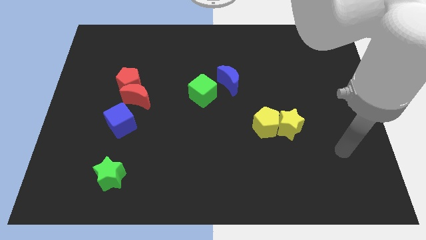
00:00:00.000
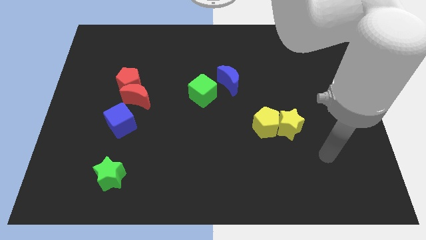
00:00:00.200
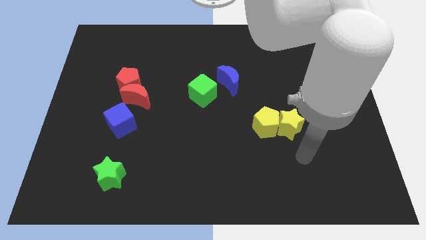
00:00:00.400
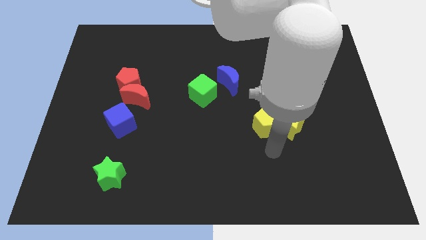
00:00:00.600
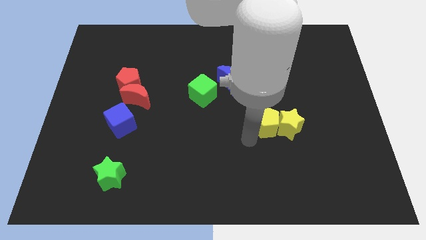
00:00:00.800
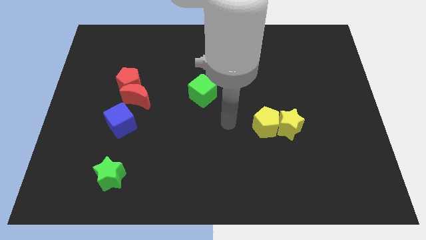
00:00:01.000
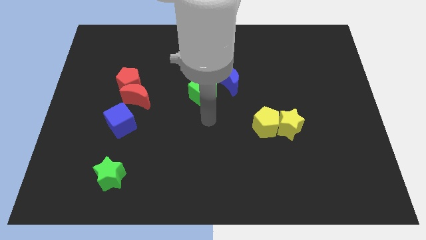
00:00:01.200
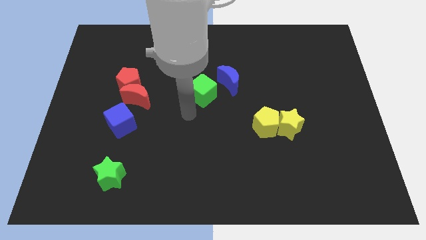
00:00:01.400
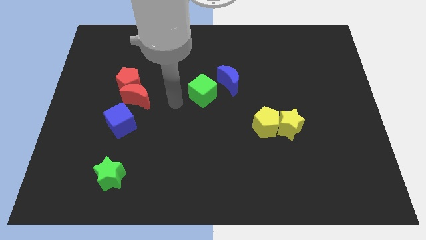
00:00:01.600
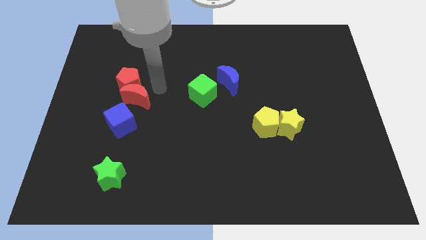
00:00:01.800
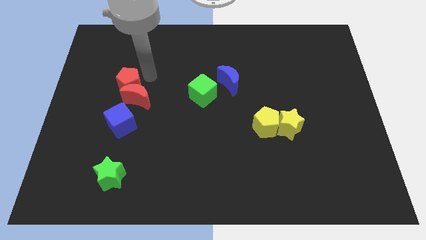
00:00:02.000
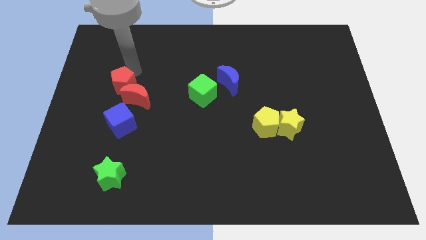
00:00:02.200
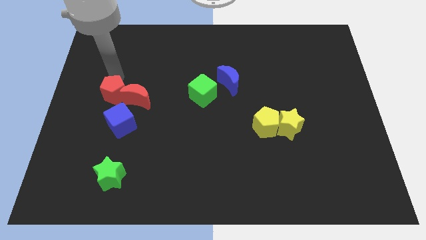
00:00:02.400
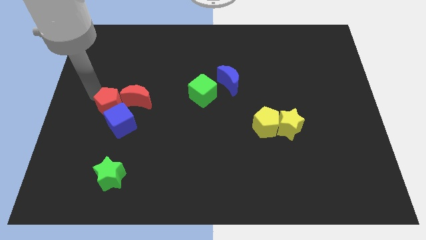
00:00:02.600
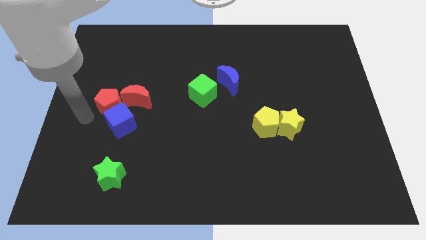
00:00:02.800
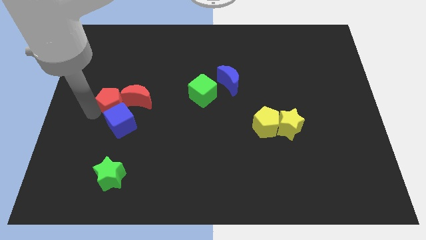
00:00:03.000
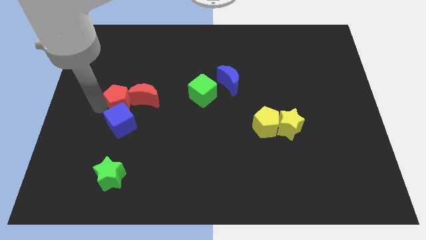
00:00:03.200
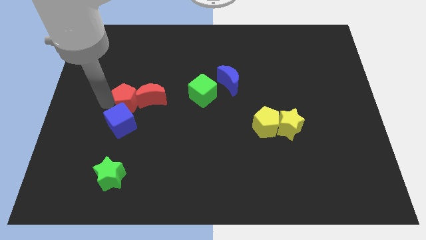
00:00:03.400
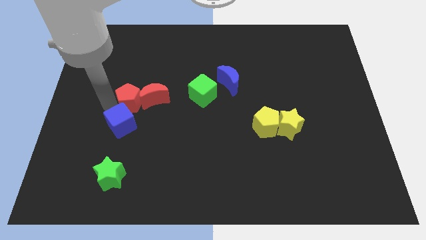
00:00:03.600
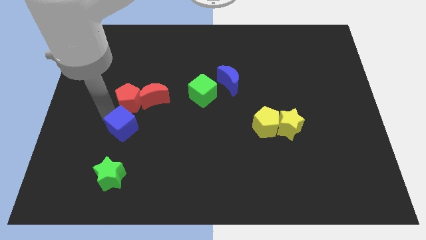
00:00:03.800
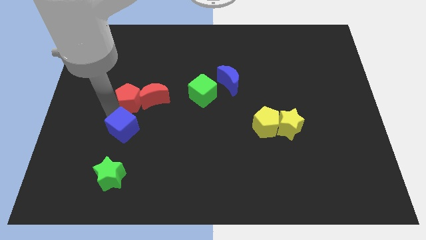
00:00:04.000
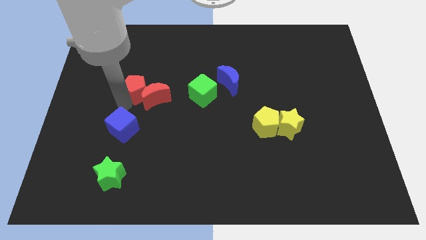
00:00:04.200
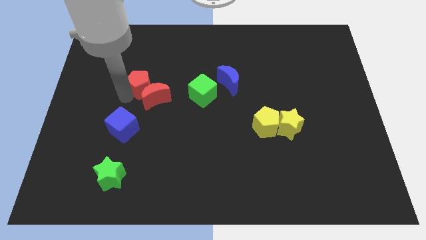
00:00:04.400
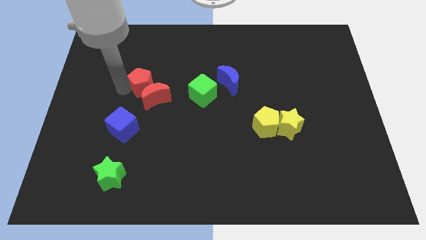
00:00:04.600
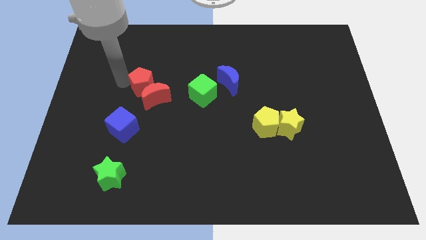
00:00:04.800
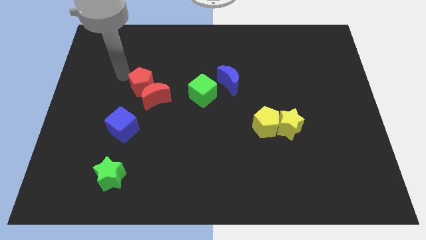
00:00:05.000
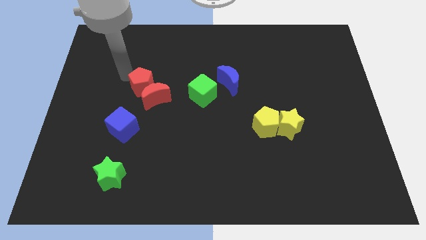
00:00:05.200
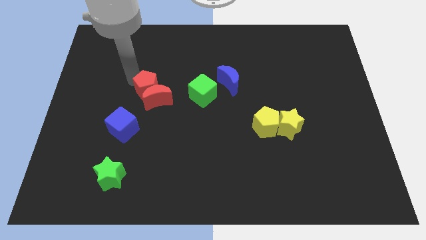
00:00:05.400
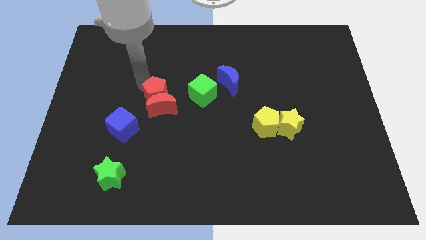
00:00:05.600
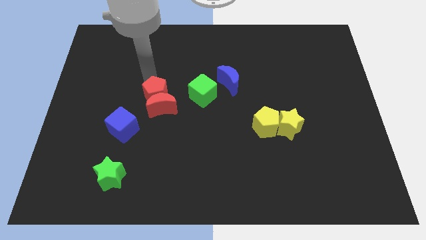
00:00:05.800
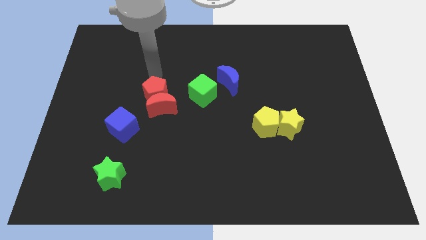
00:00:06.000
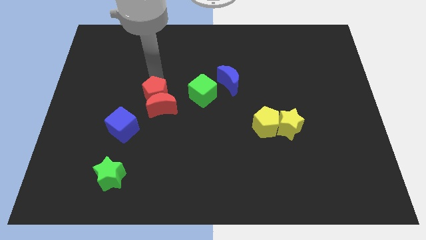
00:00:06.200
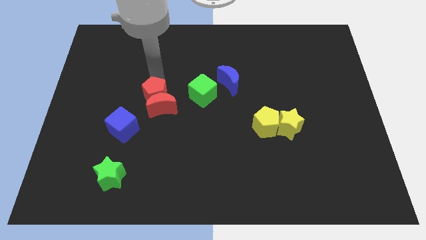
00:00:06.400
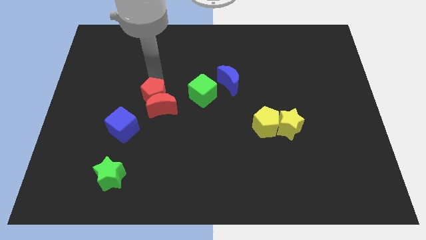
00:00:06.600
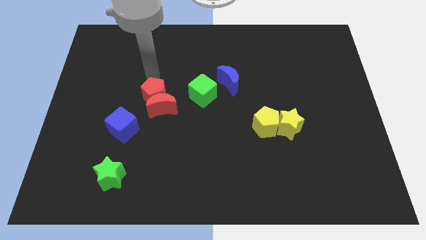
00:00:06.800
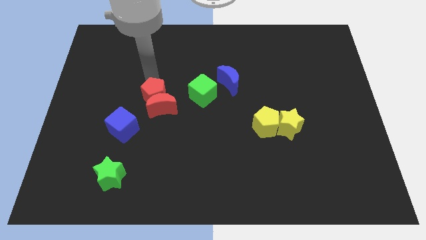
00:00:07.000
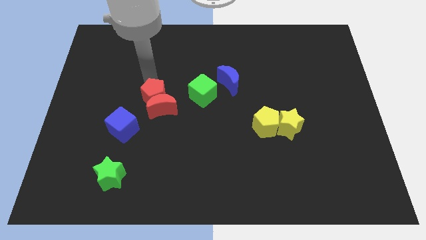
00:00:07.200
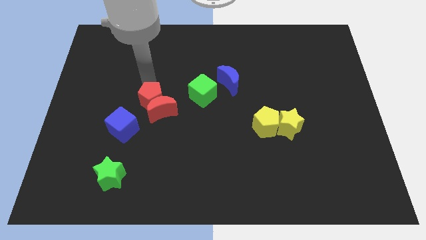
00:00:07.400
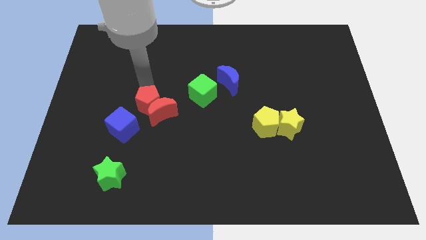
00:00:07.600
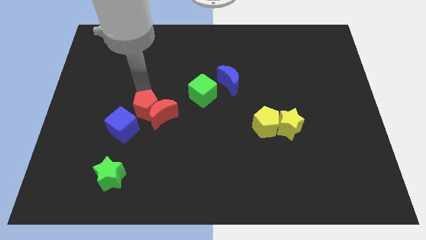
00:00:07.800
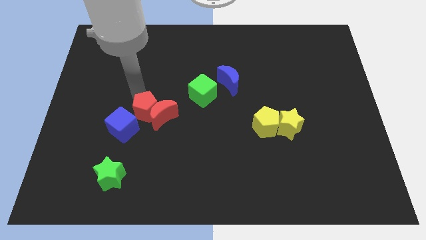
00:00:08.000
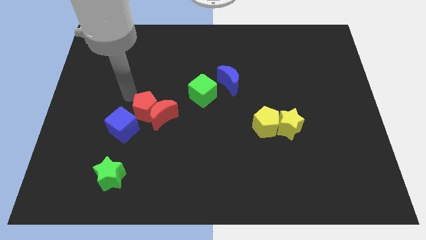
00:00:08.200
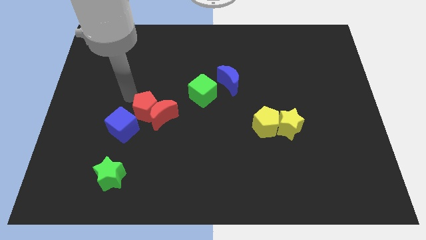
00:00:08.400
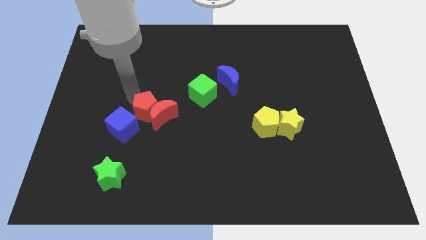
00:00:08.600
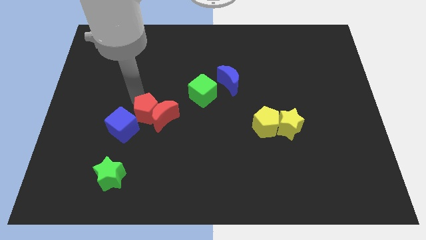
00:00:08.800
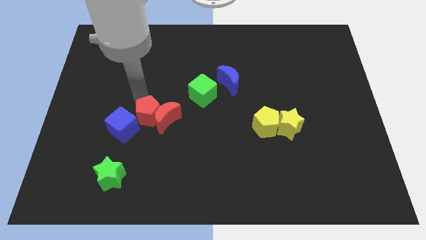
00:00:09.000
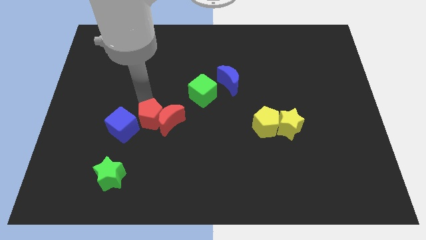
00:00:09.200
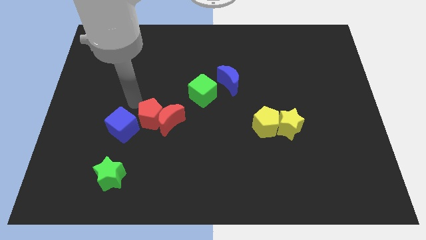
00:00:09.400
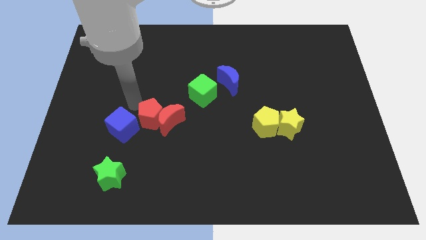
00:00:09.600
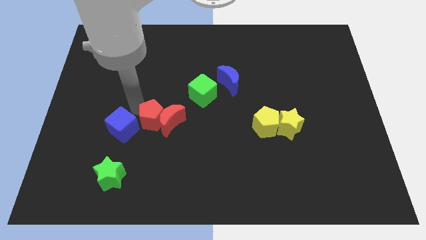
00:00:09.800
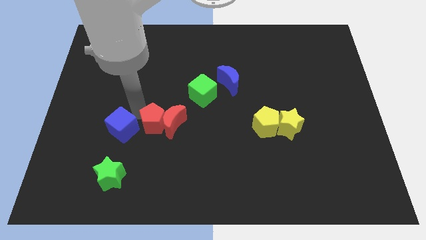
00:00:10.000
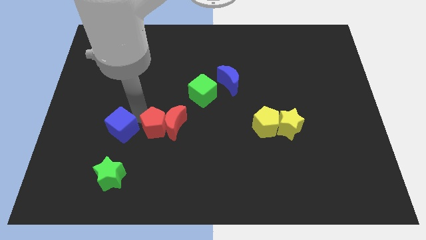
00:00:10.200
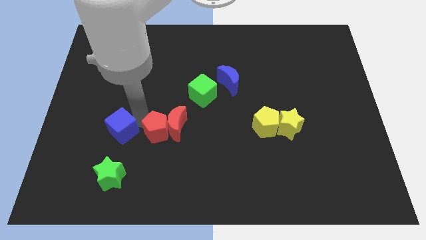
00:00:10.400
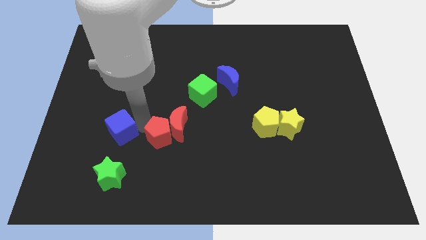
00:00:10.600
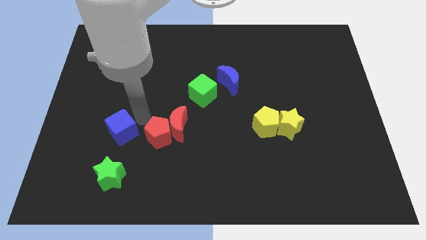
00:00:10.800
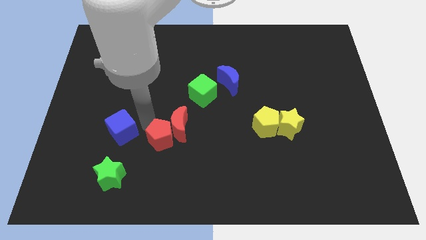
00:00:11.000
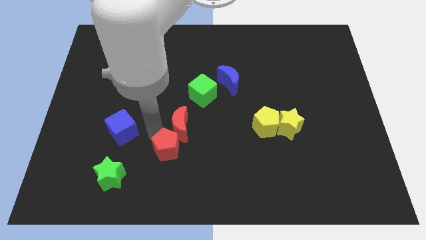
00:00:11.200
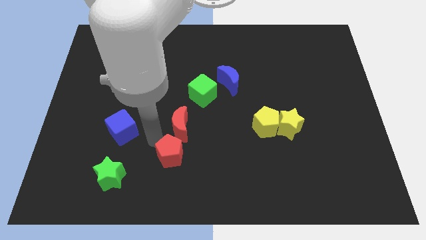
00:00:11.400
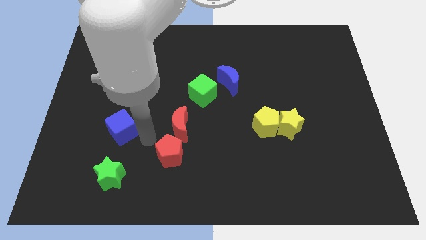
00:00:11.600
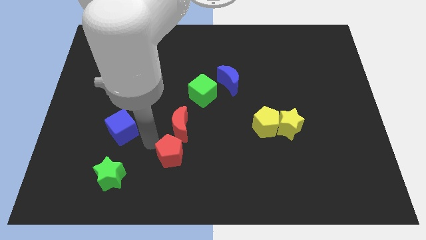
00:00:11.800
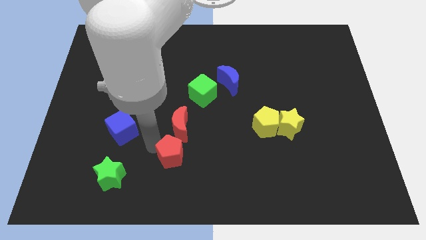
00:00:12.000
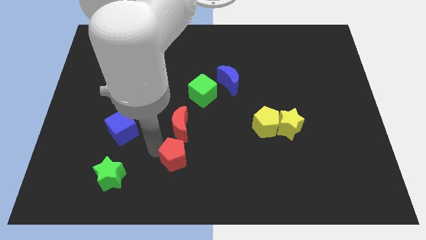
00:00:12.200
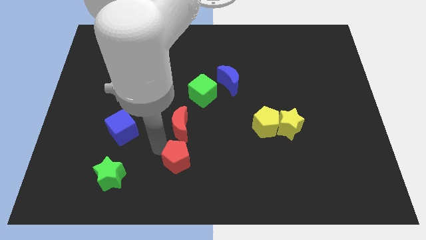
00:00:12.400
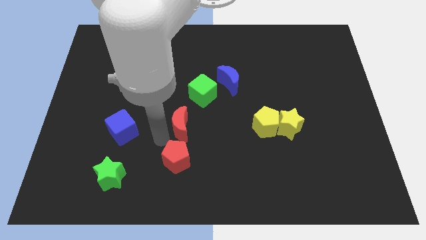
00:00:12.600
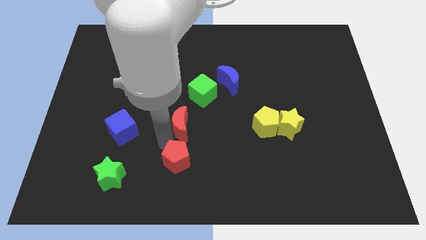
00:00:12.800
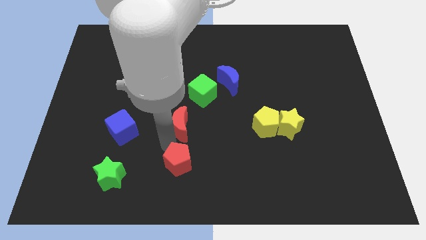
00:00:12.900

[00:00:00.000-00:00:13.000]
push the red pentagon to the bottom side

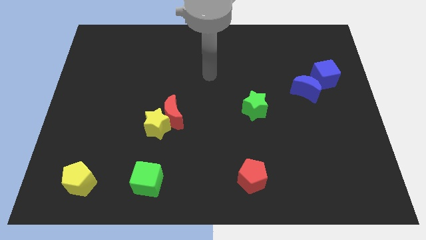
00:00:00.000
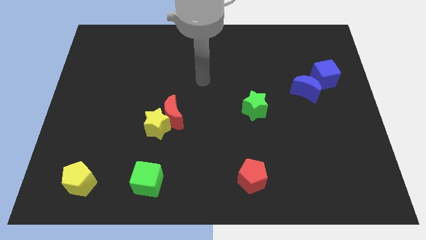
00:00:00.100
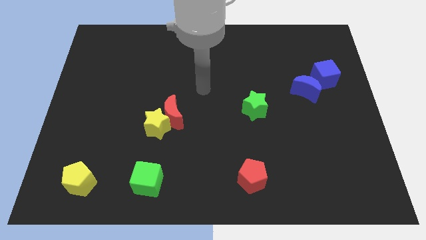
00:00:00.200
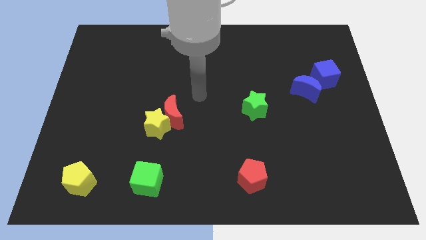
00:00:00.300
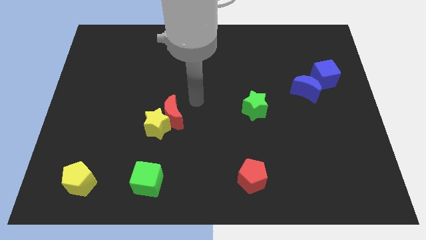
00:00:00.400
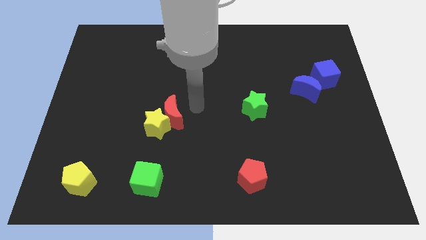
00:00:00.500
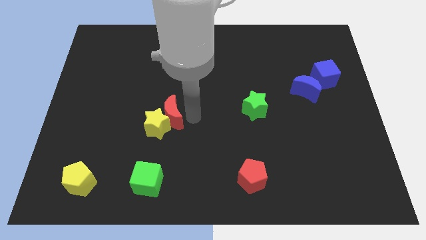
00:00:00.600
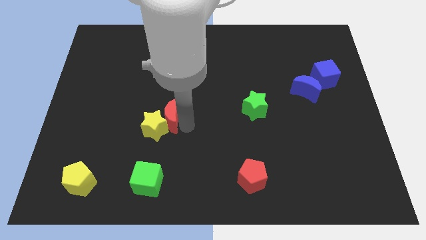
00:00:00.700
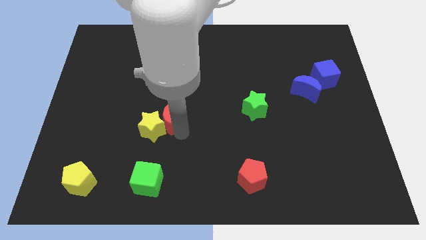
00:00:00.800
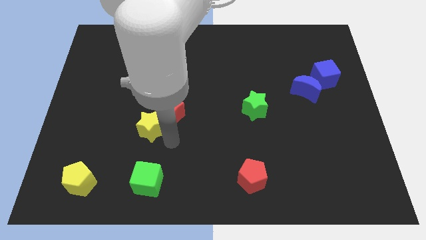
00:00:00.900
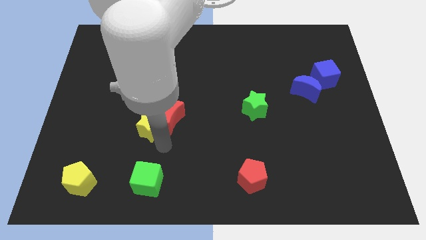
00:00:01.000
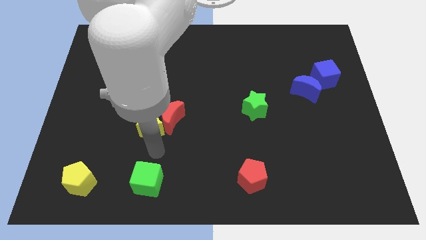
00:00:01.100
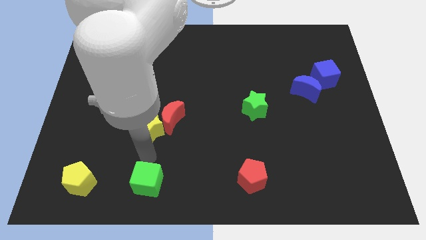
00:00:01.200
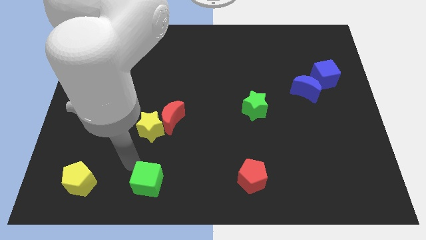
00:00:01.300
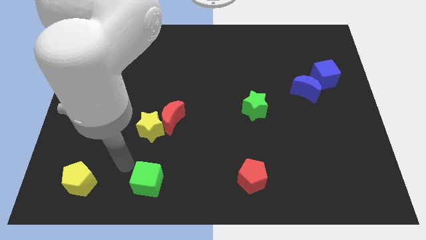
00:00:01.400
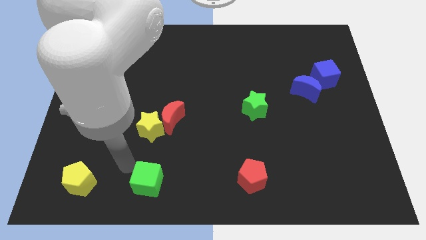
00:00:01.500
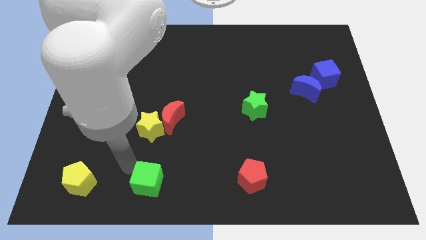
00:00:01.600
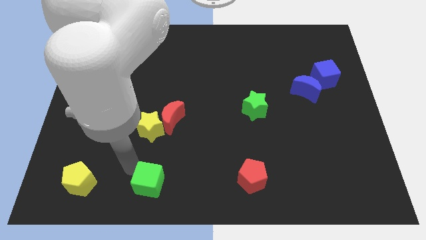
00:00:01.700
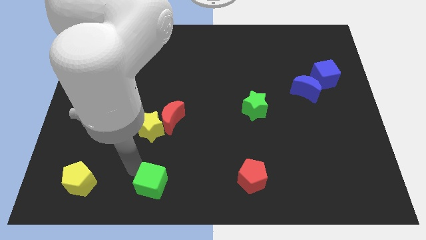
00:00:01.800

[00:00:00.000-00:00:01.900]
push the green cube to the bottom
